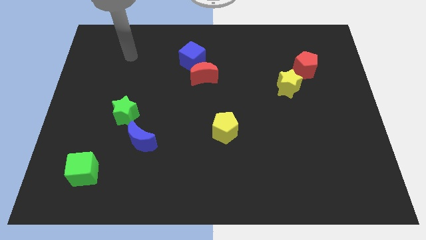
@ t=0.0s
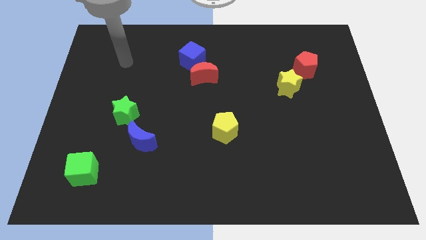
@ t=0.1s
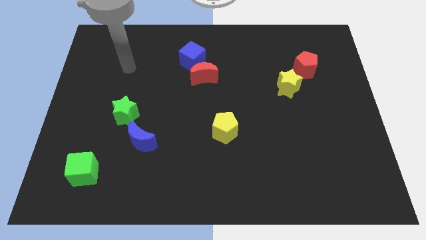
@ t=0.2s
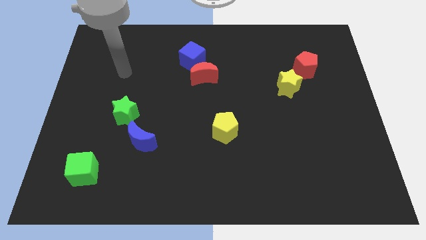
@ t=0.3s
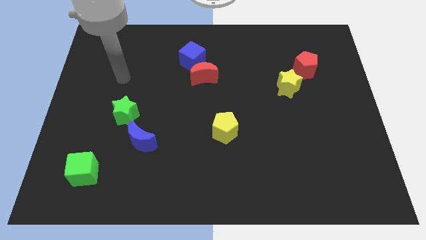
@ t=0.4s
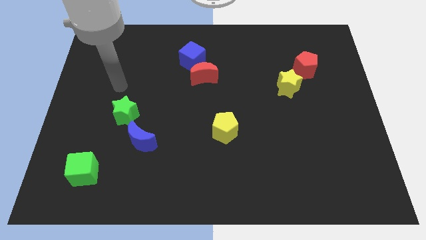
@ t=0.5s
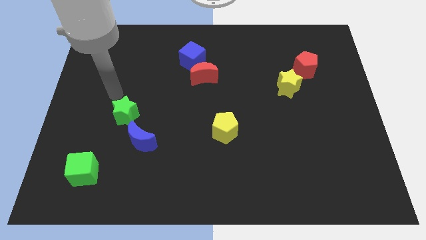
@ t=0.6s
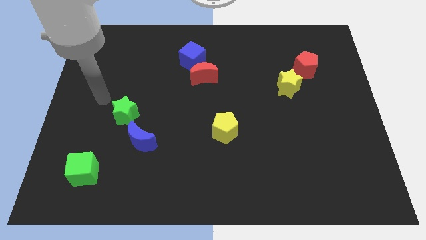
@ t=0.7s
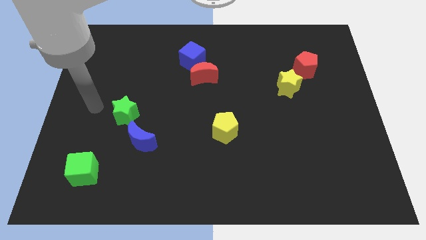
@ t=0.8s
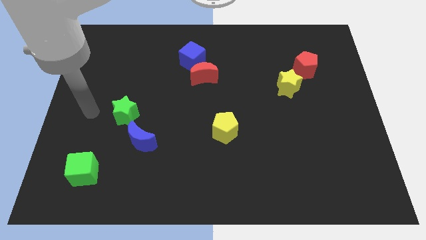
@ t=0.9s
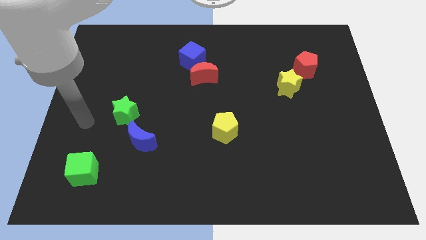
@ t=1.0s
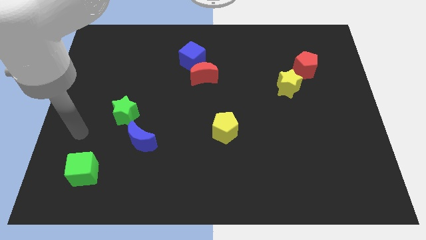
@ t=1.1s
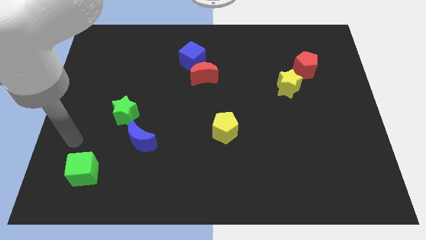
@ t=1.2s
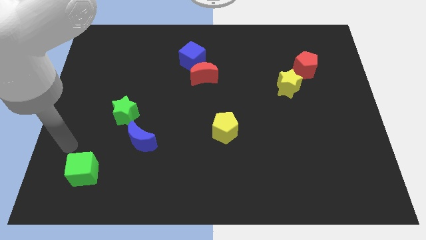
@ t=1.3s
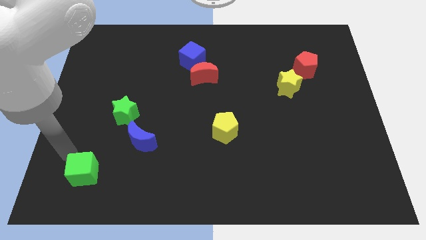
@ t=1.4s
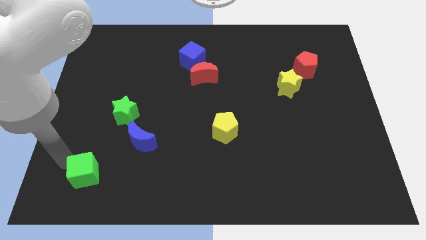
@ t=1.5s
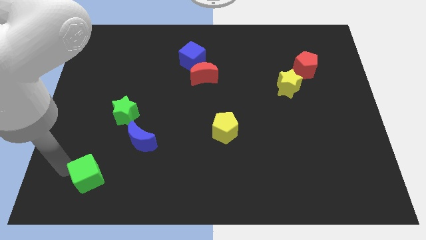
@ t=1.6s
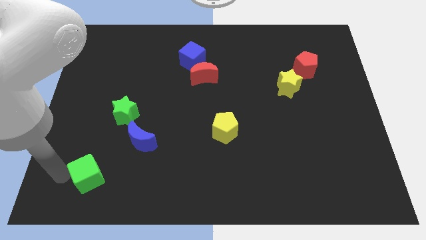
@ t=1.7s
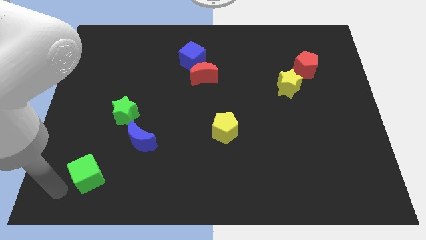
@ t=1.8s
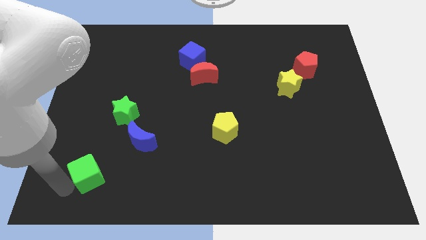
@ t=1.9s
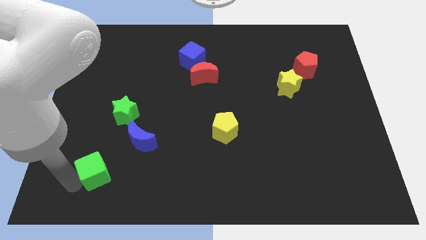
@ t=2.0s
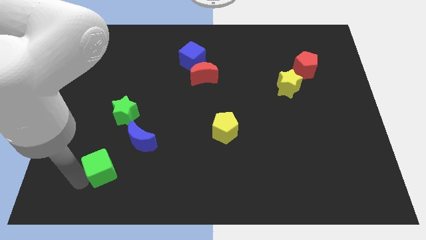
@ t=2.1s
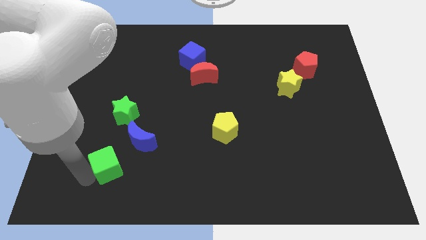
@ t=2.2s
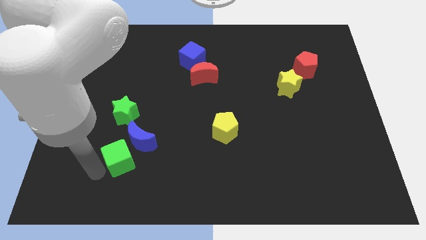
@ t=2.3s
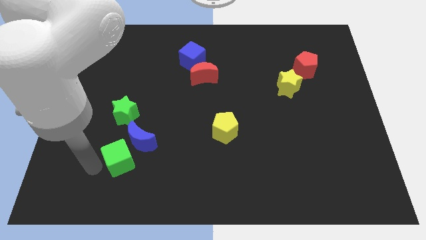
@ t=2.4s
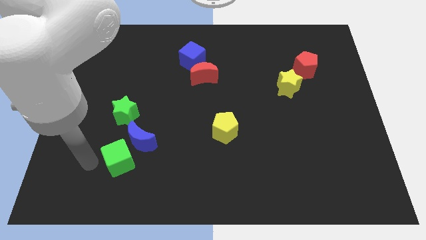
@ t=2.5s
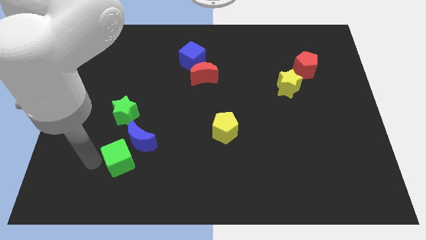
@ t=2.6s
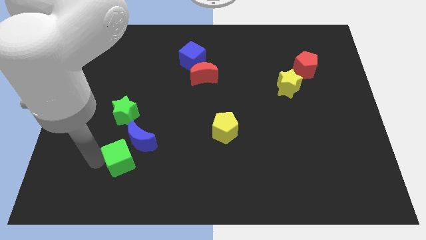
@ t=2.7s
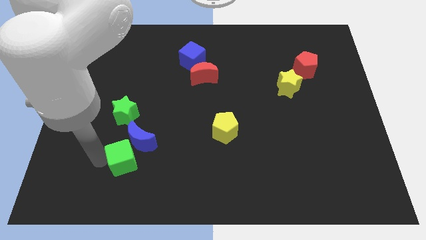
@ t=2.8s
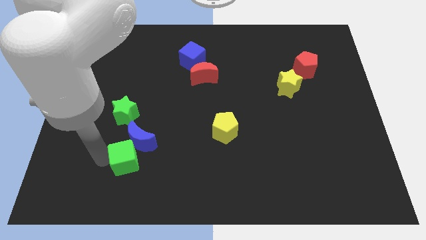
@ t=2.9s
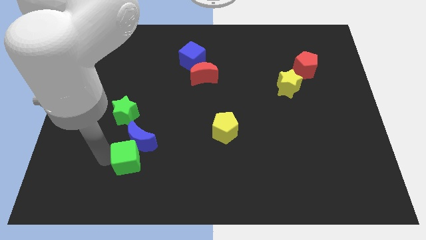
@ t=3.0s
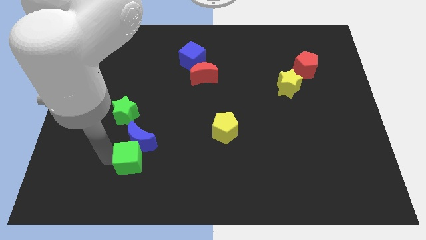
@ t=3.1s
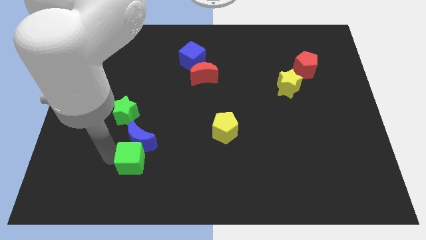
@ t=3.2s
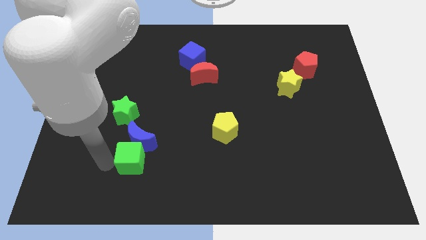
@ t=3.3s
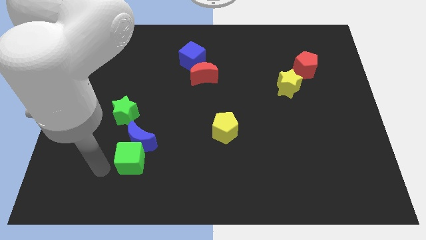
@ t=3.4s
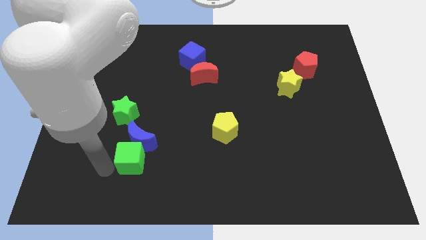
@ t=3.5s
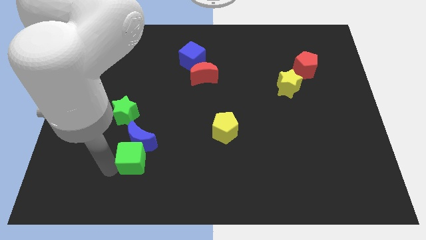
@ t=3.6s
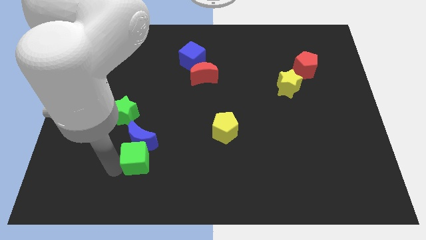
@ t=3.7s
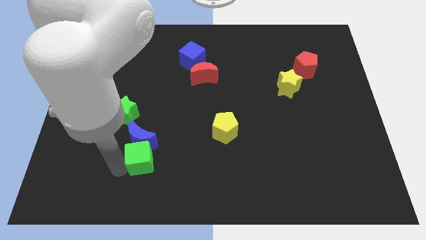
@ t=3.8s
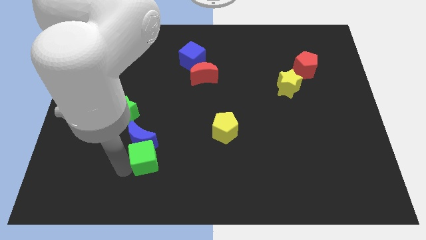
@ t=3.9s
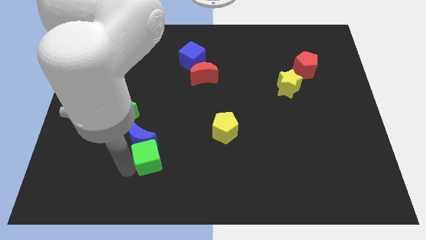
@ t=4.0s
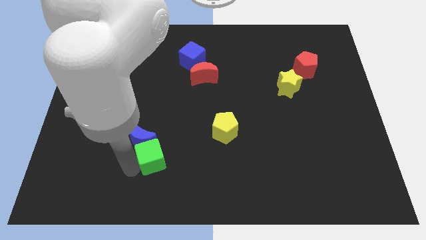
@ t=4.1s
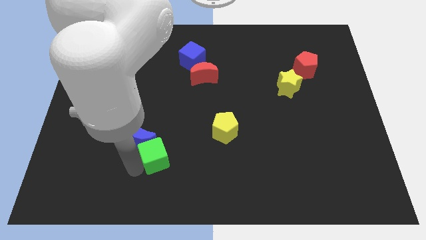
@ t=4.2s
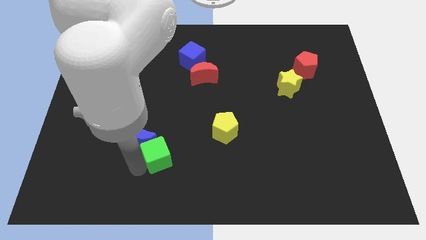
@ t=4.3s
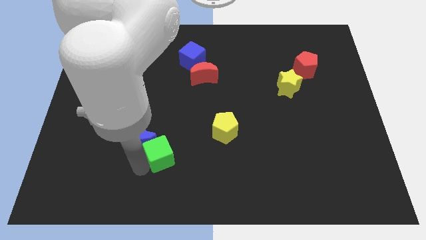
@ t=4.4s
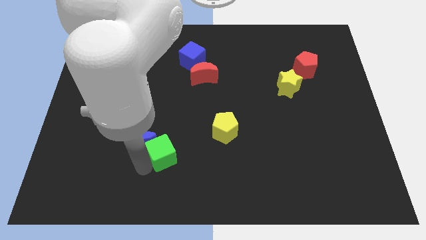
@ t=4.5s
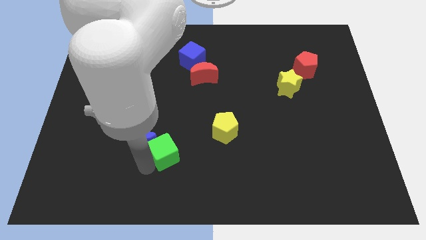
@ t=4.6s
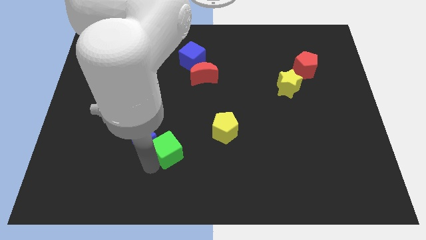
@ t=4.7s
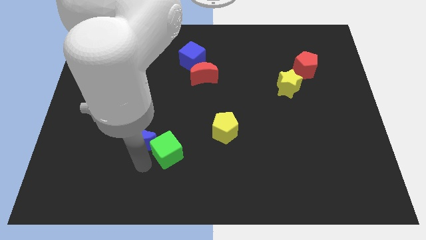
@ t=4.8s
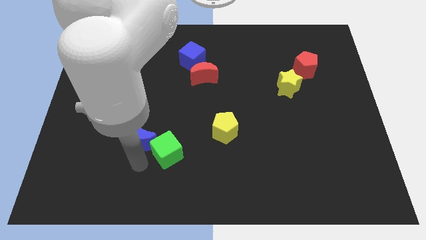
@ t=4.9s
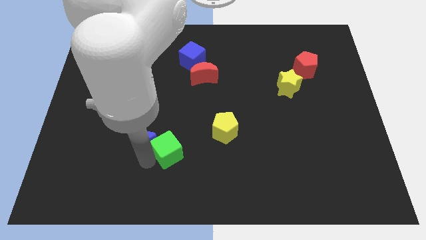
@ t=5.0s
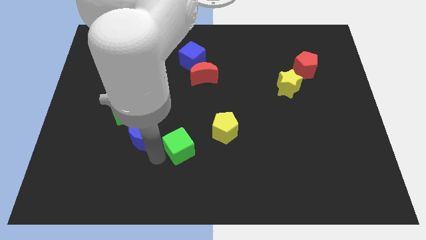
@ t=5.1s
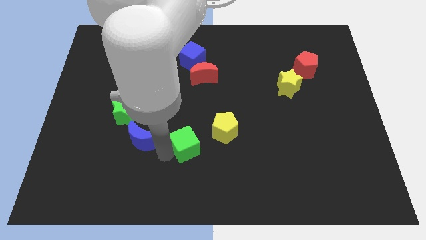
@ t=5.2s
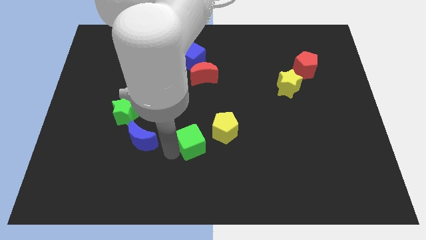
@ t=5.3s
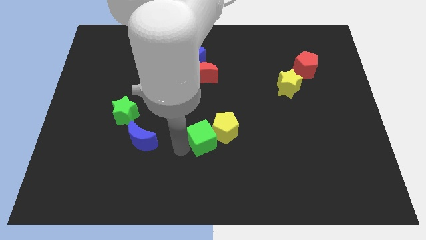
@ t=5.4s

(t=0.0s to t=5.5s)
put the green cube next to the yellow pentagon

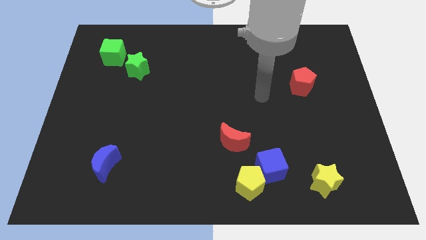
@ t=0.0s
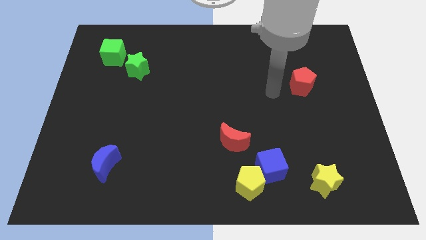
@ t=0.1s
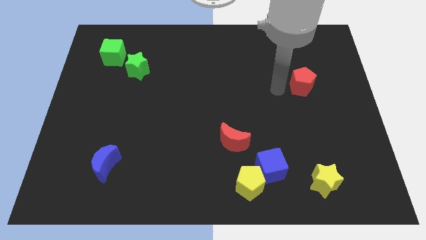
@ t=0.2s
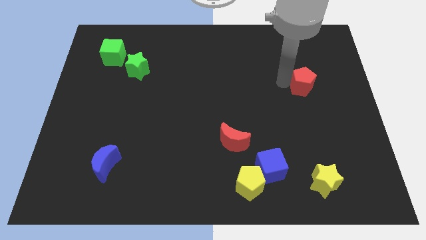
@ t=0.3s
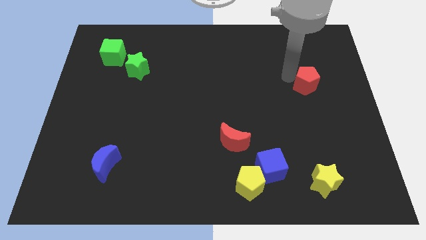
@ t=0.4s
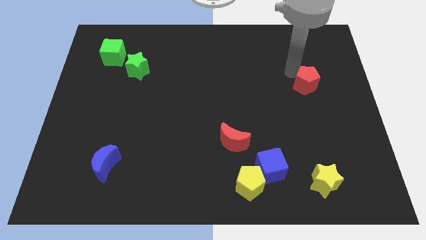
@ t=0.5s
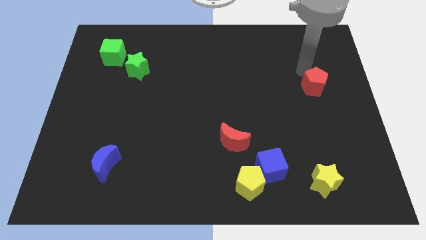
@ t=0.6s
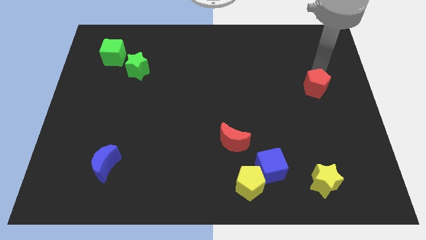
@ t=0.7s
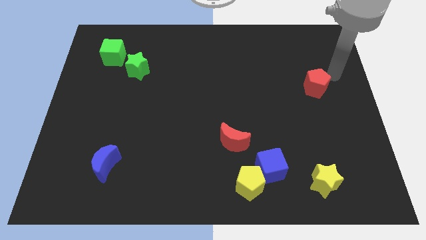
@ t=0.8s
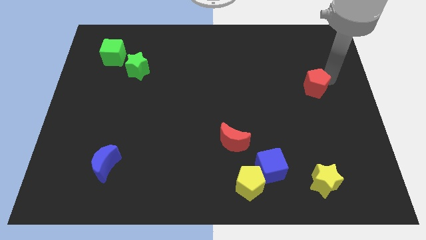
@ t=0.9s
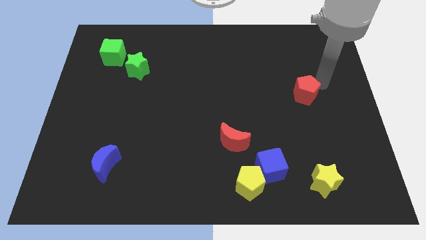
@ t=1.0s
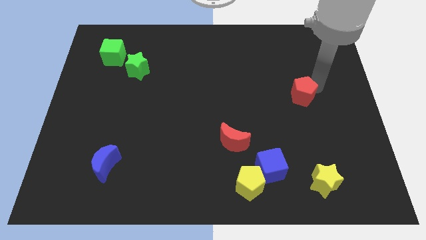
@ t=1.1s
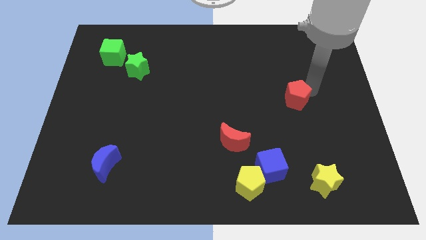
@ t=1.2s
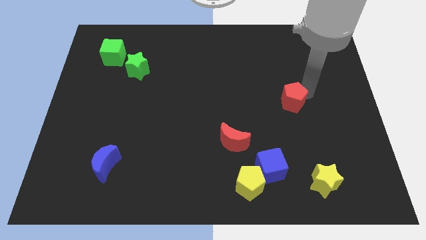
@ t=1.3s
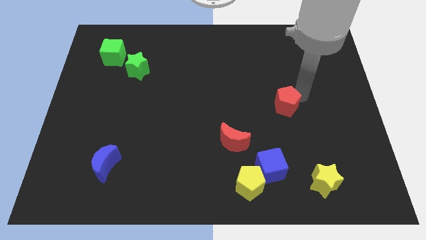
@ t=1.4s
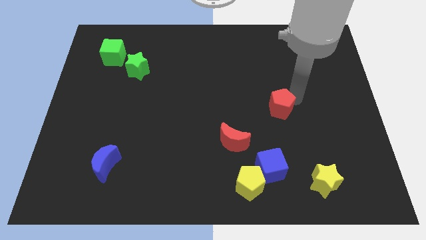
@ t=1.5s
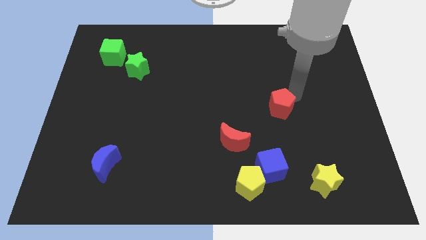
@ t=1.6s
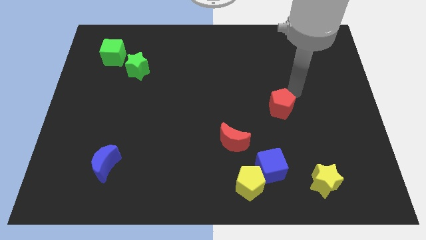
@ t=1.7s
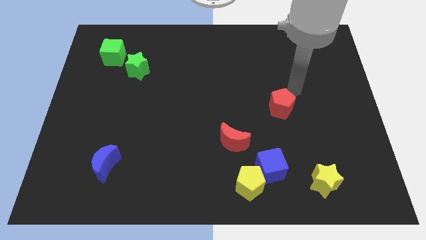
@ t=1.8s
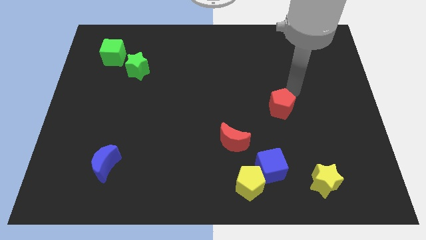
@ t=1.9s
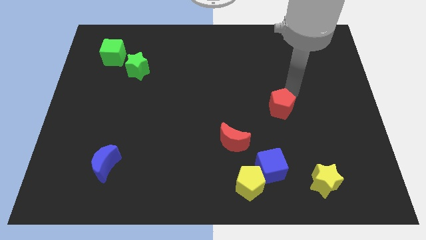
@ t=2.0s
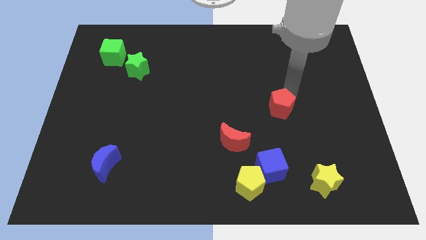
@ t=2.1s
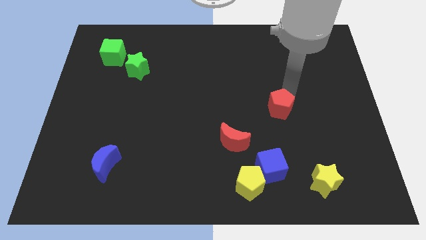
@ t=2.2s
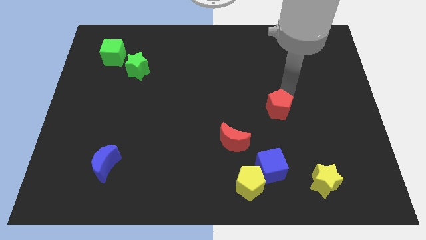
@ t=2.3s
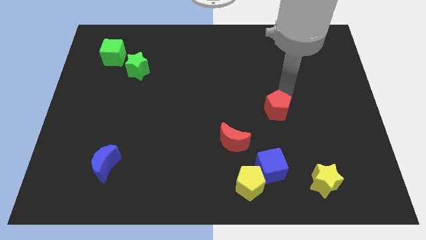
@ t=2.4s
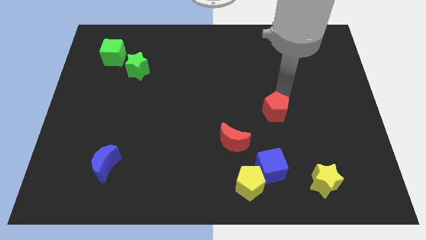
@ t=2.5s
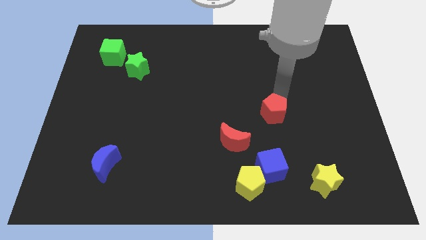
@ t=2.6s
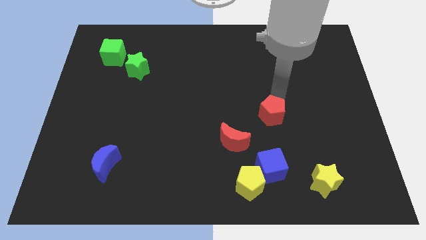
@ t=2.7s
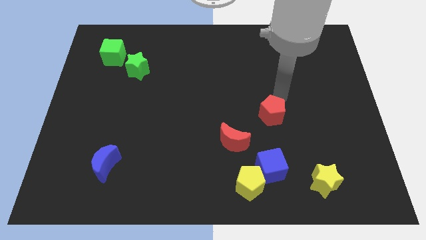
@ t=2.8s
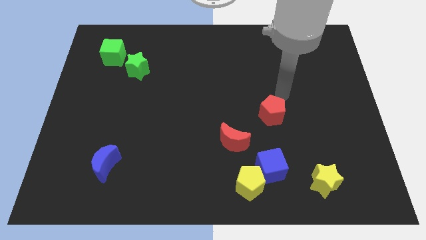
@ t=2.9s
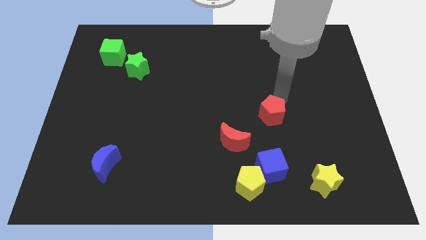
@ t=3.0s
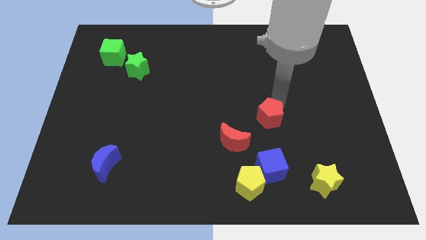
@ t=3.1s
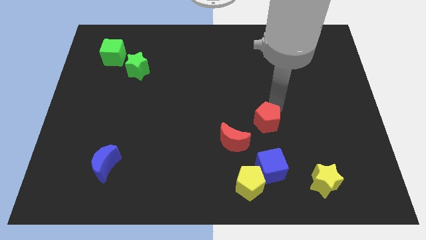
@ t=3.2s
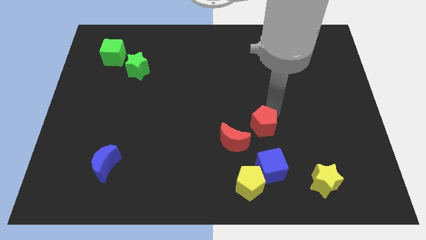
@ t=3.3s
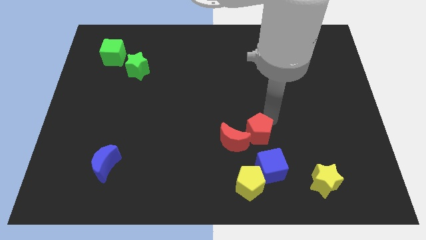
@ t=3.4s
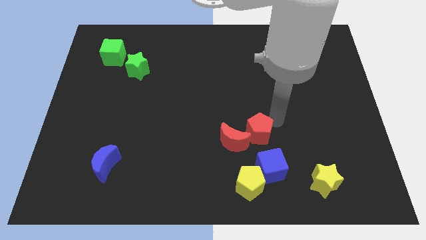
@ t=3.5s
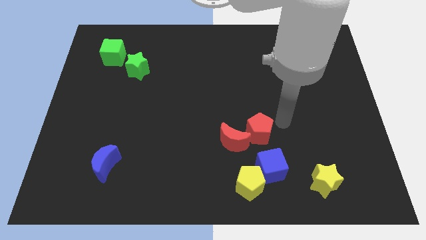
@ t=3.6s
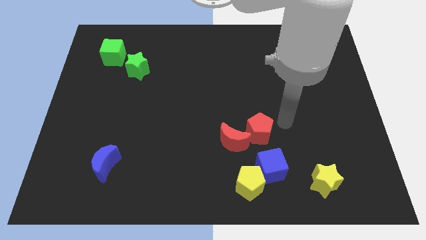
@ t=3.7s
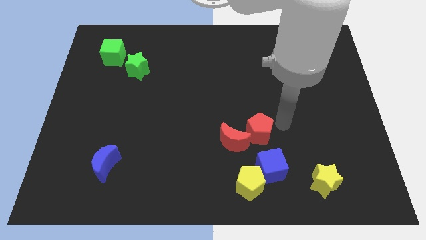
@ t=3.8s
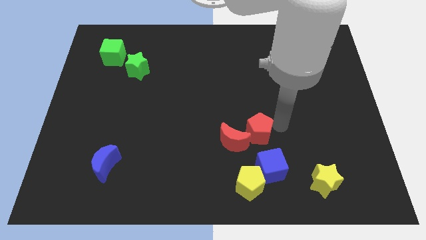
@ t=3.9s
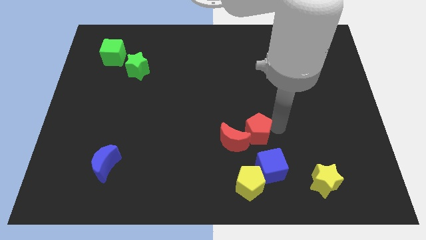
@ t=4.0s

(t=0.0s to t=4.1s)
move the red pentagon next to the red moon
